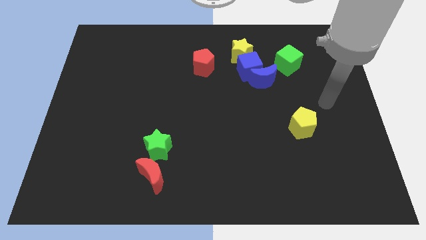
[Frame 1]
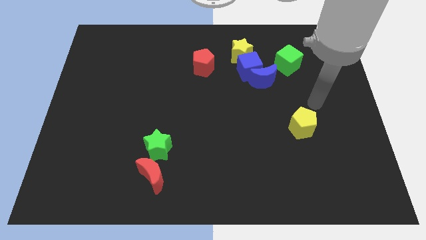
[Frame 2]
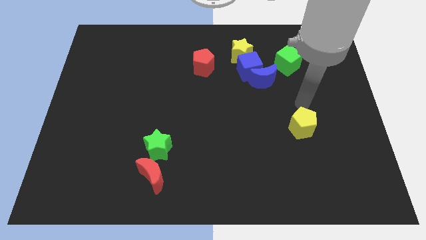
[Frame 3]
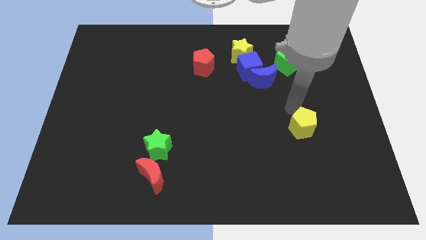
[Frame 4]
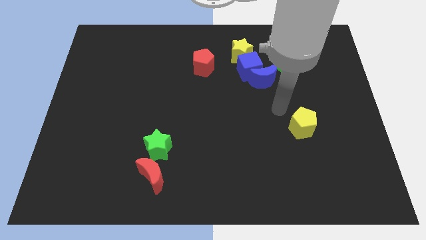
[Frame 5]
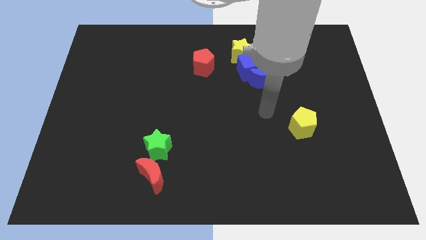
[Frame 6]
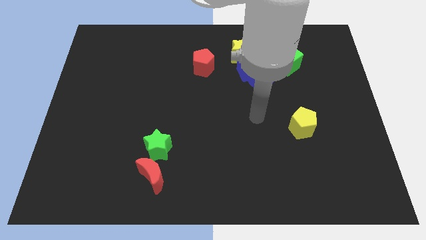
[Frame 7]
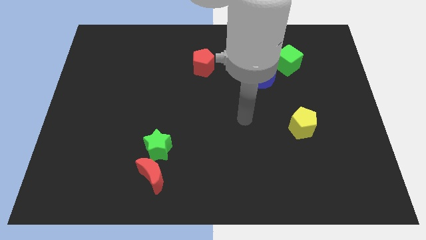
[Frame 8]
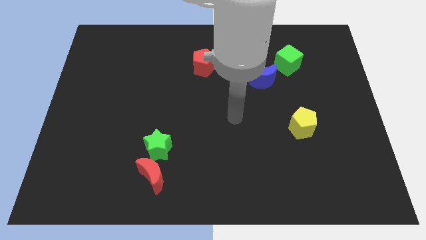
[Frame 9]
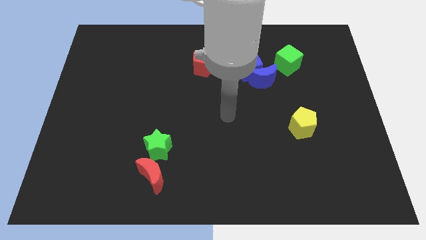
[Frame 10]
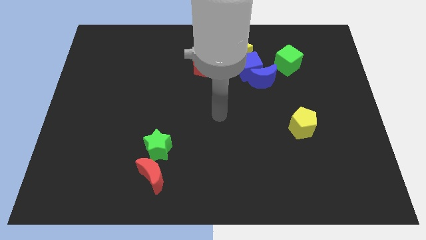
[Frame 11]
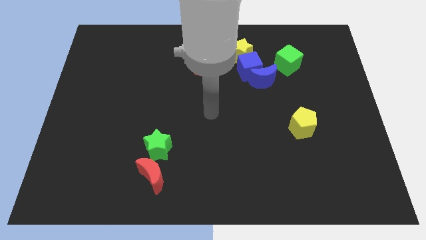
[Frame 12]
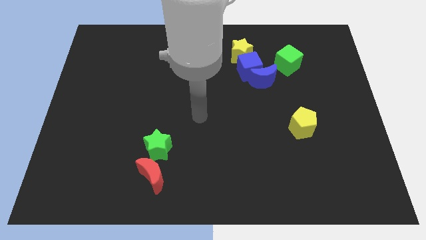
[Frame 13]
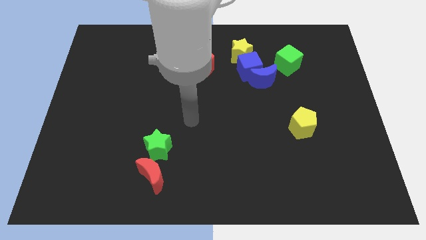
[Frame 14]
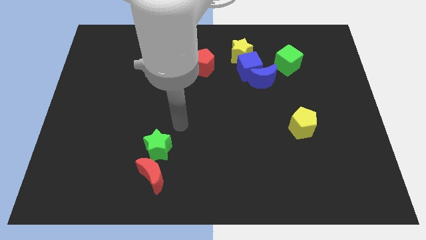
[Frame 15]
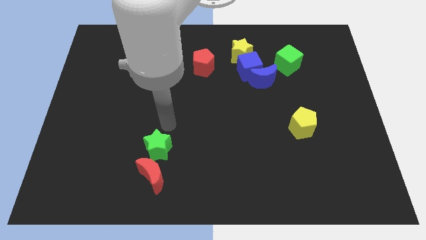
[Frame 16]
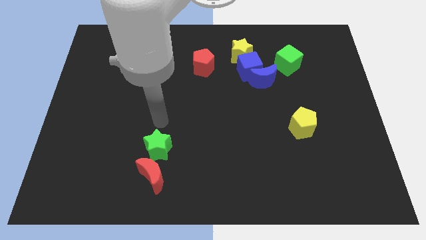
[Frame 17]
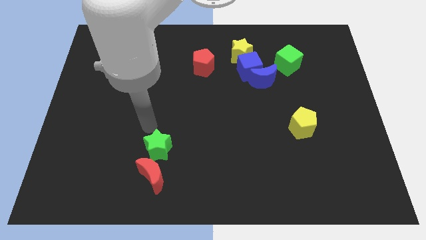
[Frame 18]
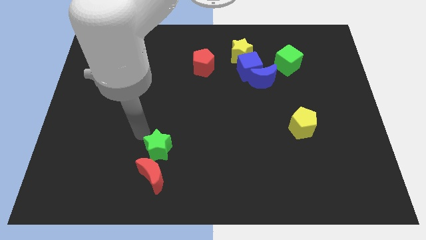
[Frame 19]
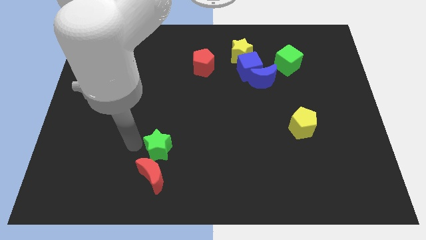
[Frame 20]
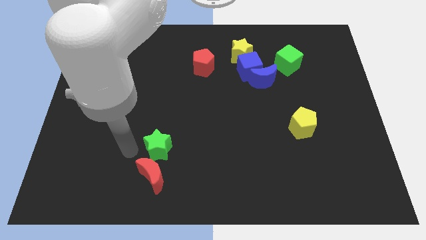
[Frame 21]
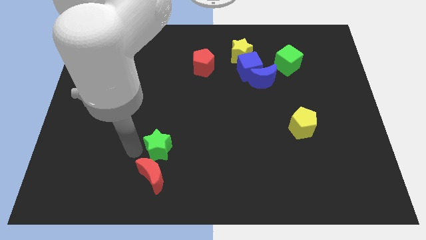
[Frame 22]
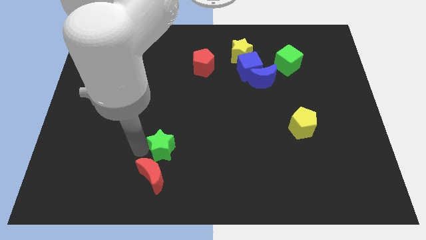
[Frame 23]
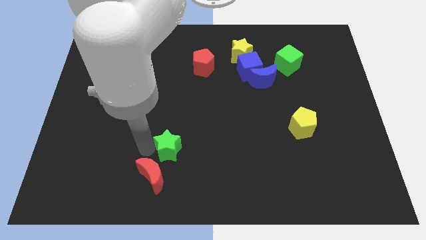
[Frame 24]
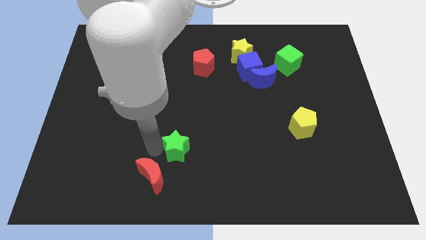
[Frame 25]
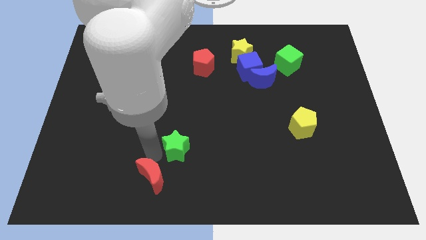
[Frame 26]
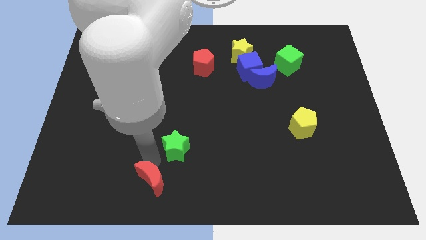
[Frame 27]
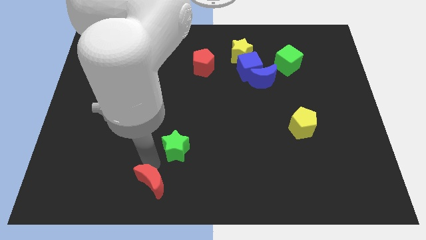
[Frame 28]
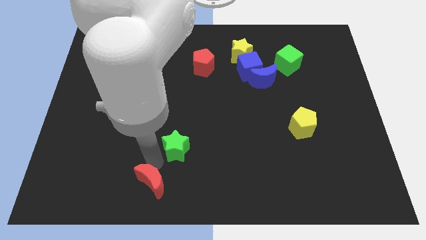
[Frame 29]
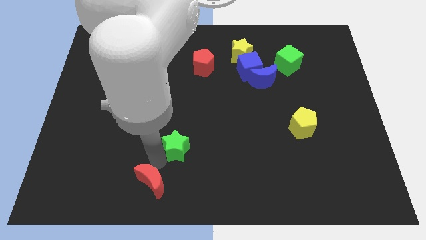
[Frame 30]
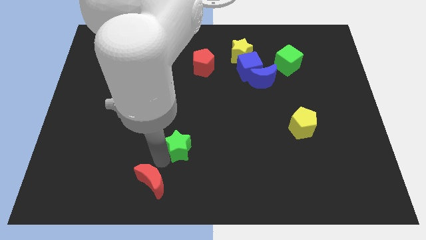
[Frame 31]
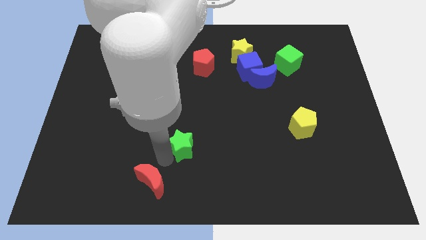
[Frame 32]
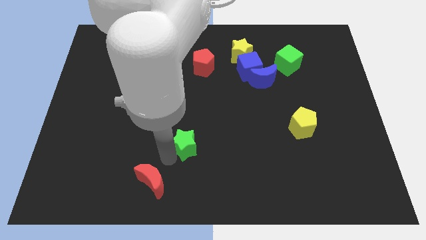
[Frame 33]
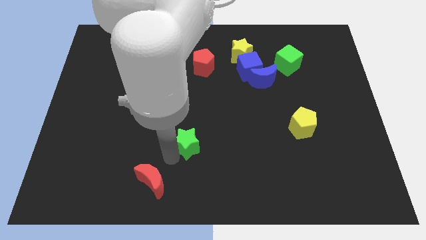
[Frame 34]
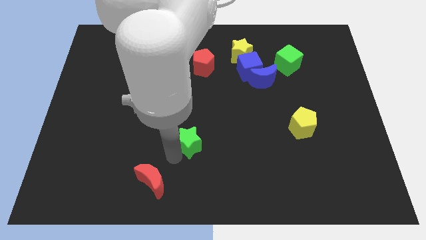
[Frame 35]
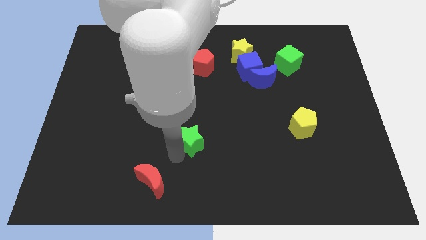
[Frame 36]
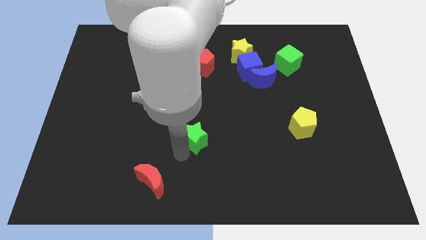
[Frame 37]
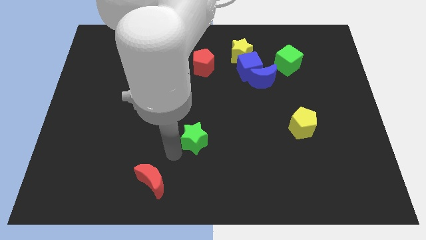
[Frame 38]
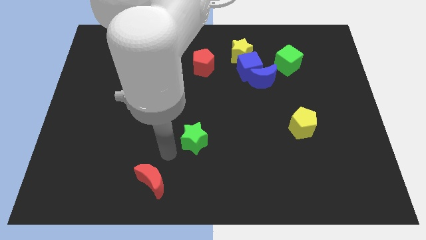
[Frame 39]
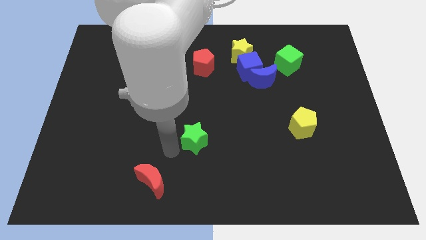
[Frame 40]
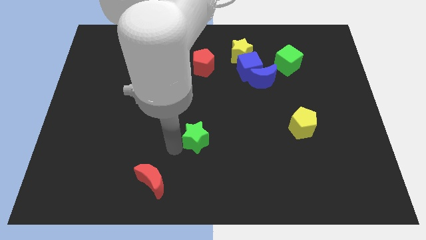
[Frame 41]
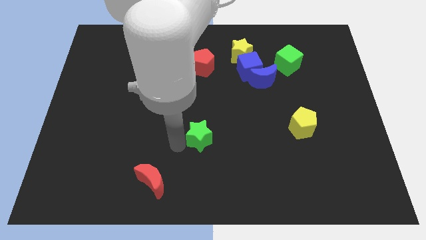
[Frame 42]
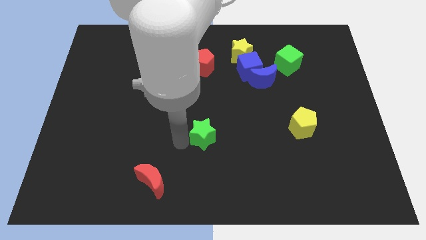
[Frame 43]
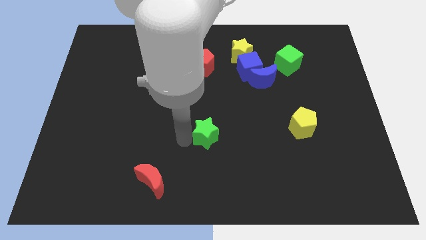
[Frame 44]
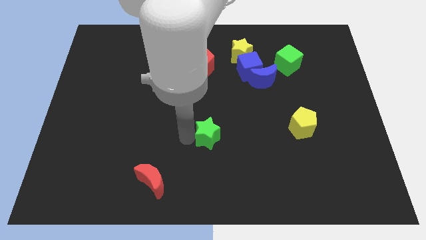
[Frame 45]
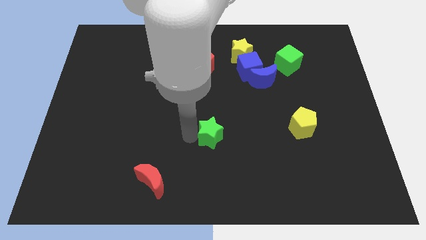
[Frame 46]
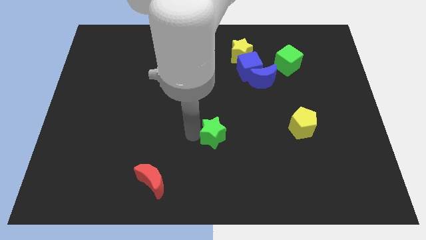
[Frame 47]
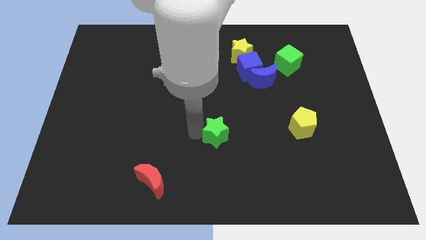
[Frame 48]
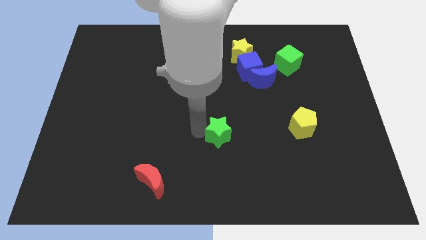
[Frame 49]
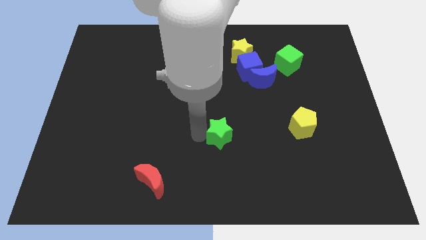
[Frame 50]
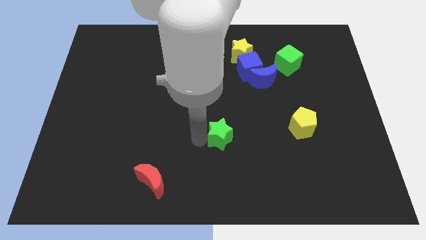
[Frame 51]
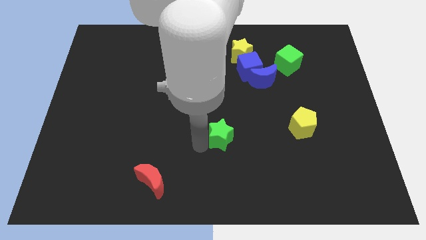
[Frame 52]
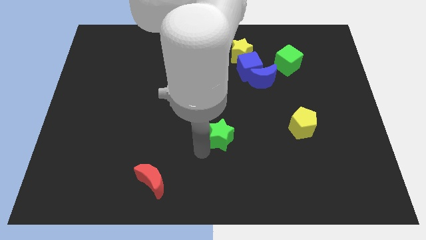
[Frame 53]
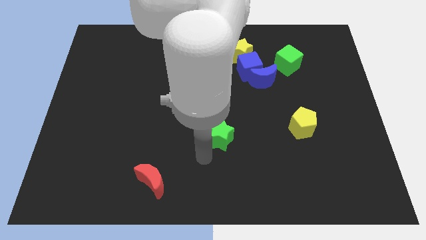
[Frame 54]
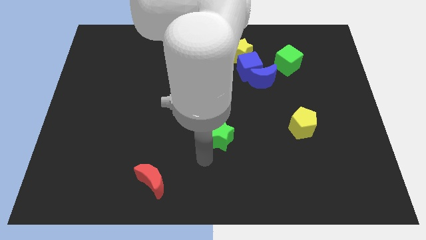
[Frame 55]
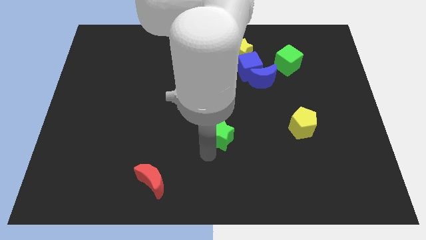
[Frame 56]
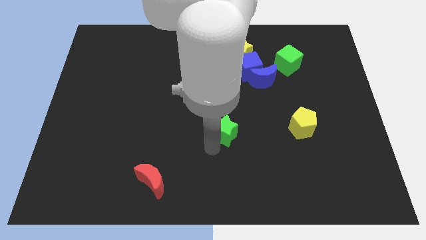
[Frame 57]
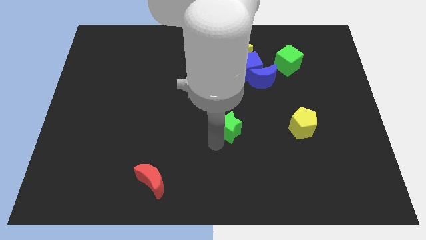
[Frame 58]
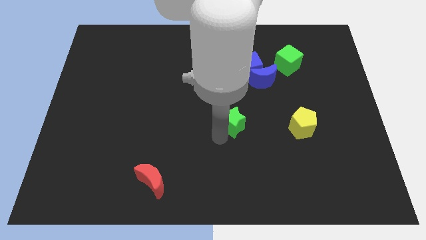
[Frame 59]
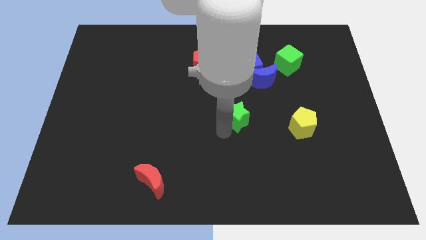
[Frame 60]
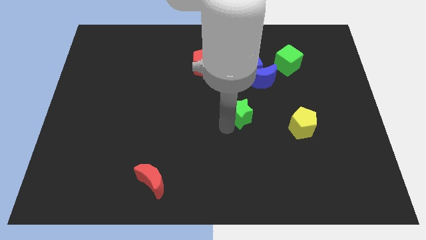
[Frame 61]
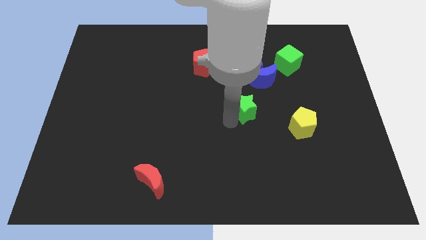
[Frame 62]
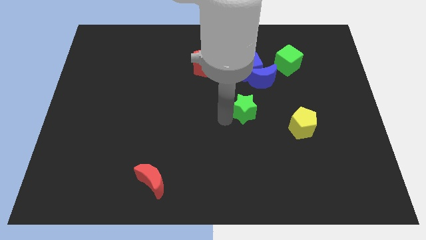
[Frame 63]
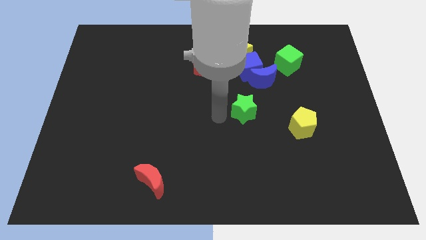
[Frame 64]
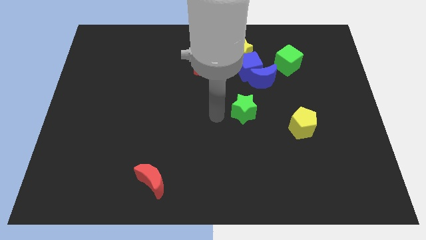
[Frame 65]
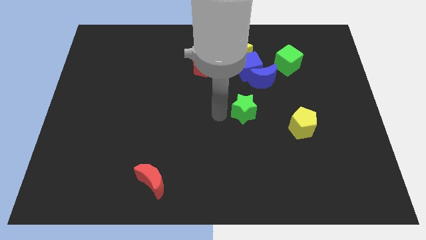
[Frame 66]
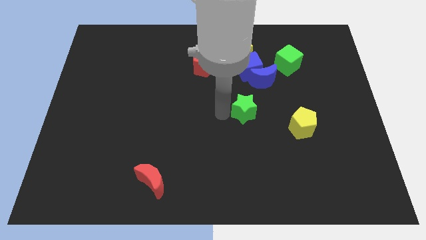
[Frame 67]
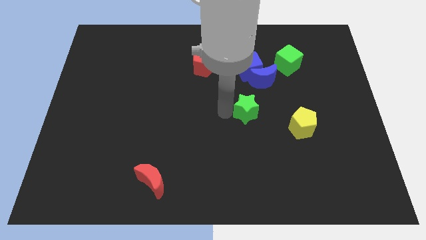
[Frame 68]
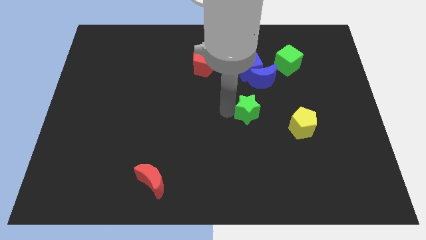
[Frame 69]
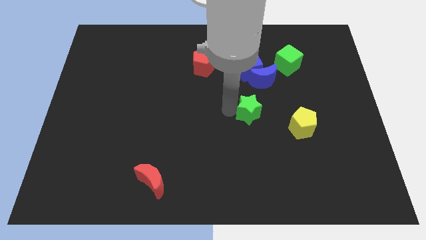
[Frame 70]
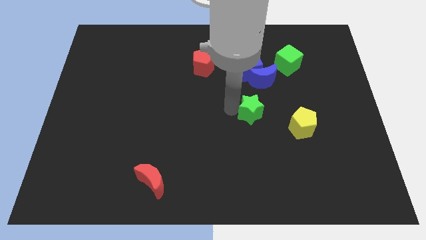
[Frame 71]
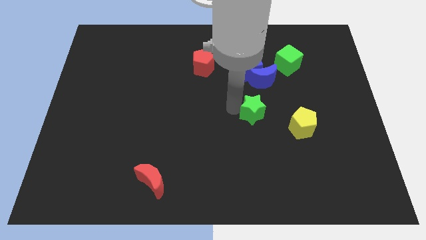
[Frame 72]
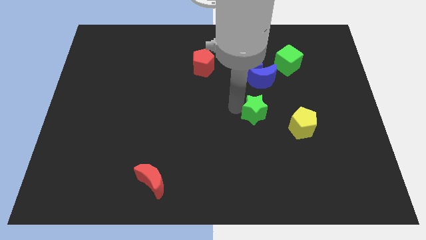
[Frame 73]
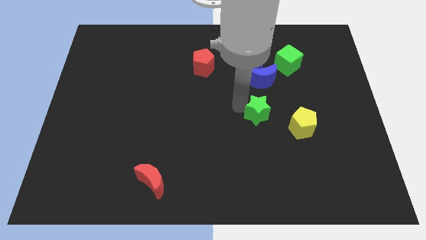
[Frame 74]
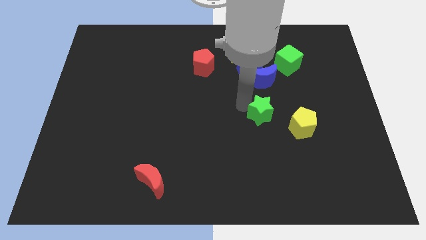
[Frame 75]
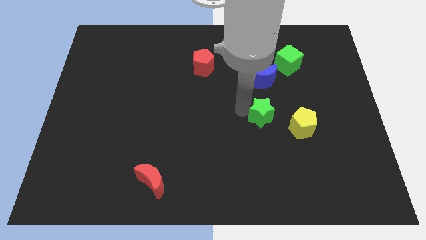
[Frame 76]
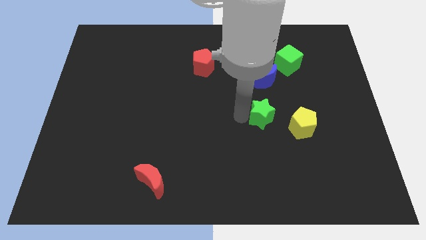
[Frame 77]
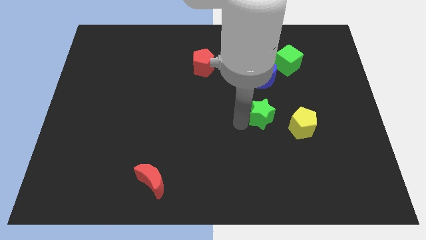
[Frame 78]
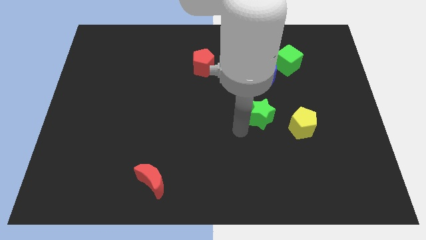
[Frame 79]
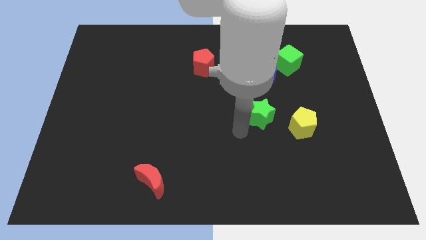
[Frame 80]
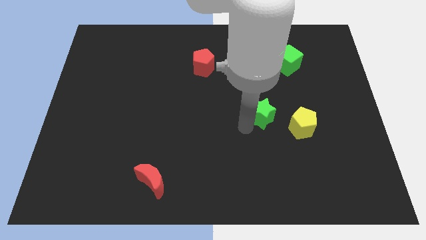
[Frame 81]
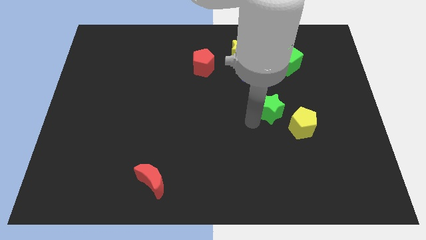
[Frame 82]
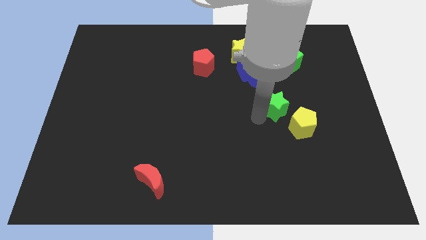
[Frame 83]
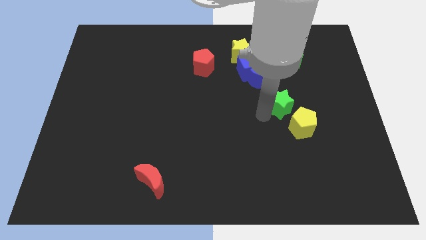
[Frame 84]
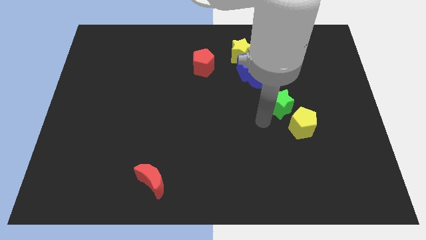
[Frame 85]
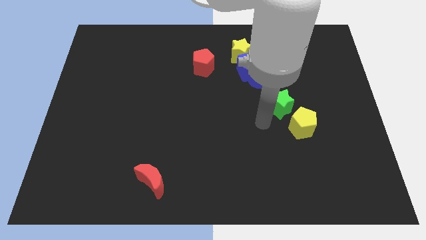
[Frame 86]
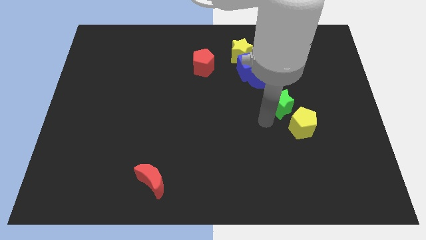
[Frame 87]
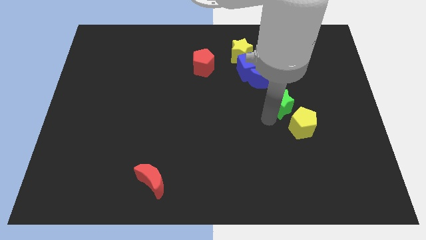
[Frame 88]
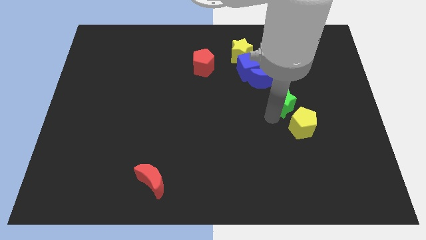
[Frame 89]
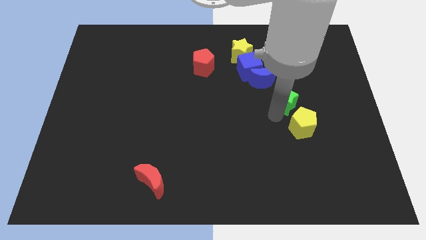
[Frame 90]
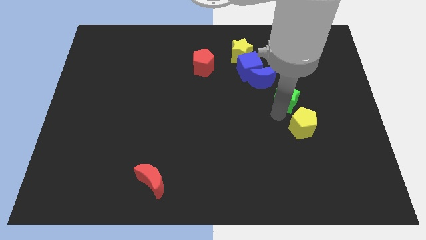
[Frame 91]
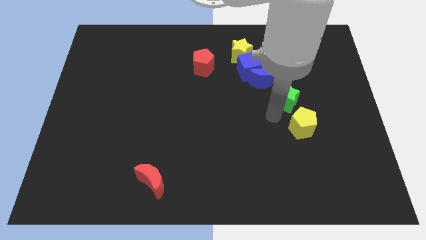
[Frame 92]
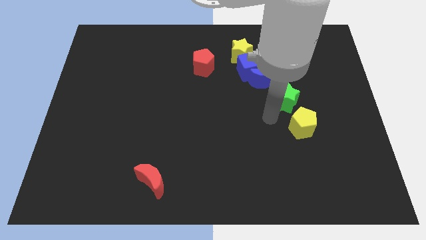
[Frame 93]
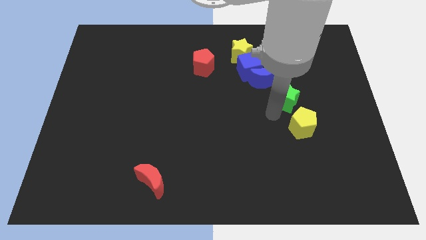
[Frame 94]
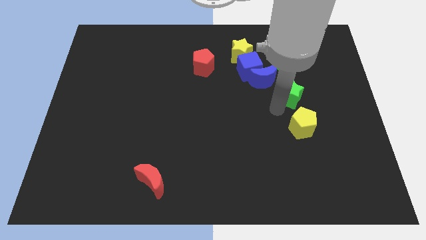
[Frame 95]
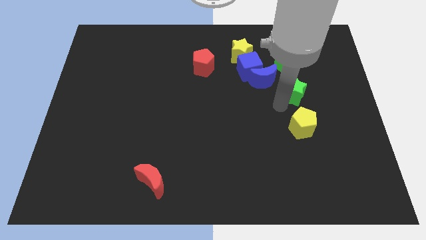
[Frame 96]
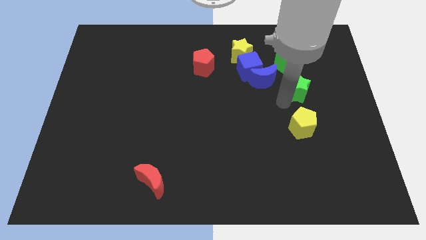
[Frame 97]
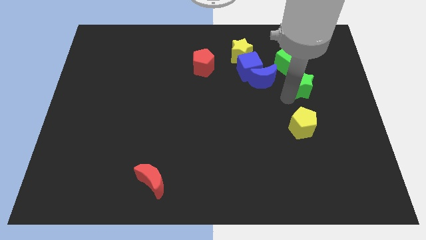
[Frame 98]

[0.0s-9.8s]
move the green star to the bottom right of the green cube
